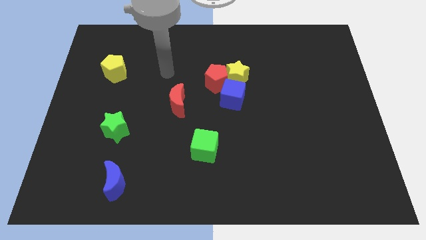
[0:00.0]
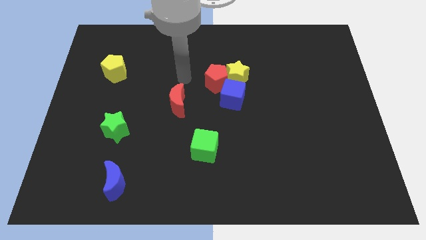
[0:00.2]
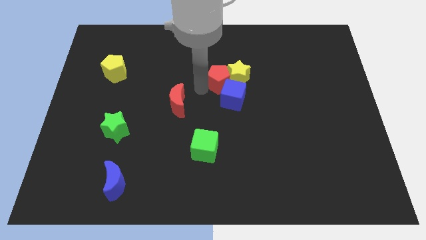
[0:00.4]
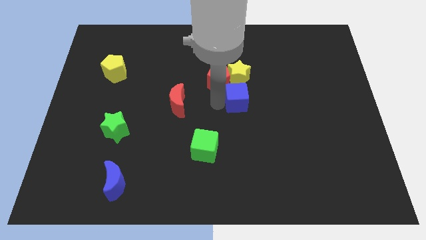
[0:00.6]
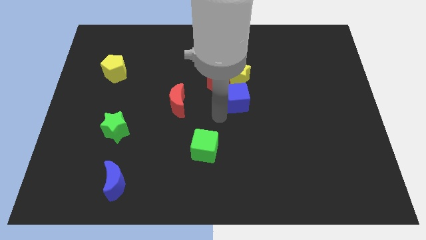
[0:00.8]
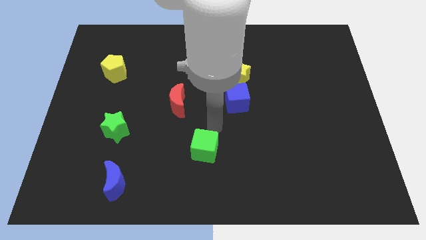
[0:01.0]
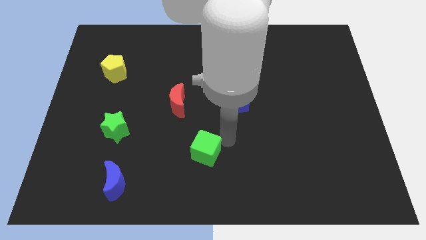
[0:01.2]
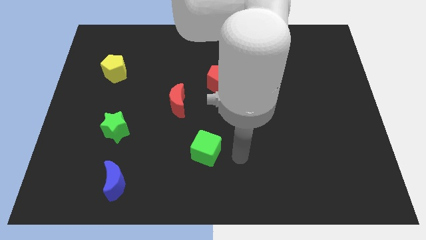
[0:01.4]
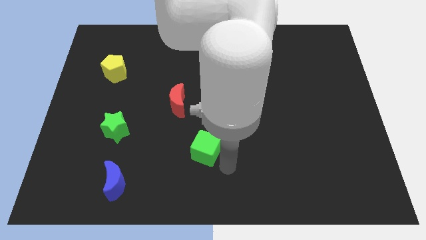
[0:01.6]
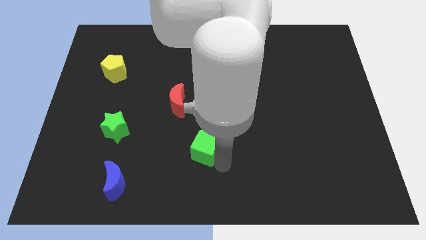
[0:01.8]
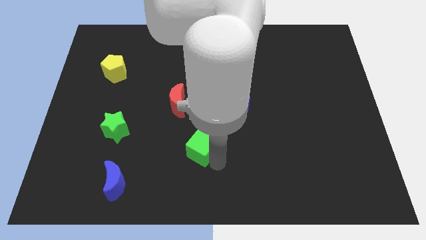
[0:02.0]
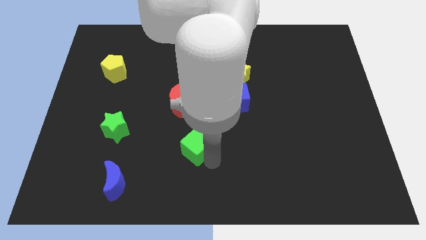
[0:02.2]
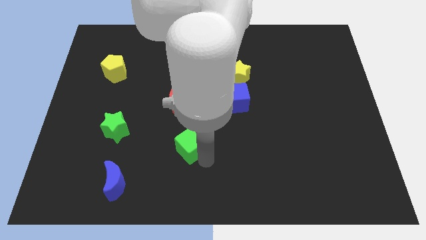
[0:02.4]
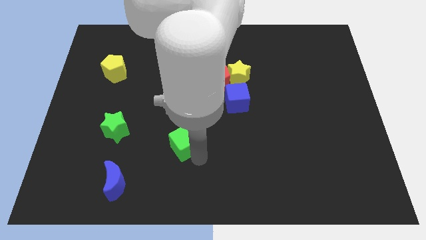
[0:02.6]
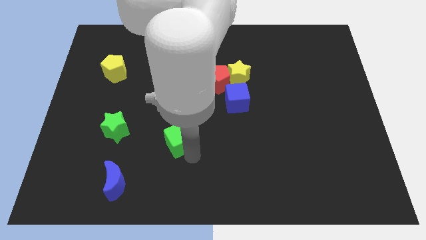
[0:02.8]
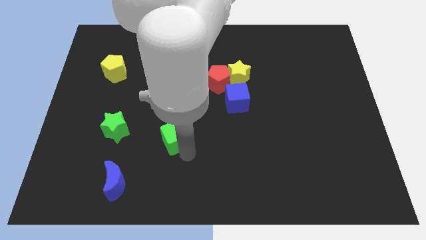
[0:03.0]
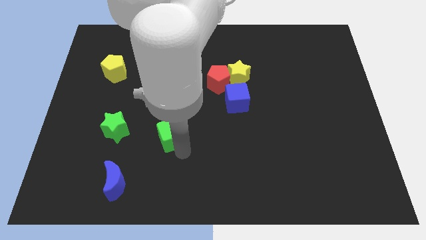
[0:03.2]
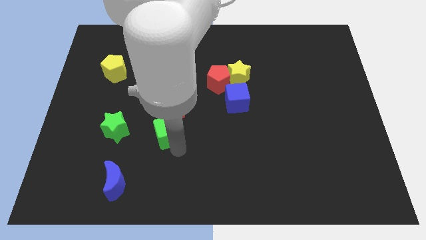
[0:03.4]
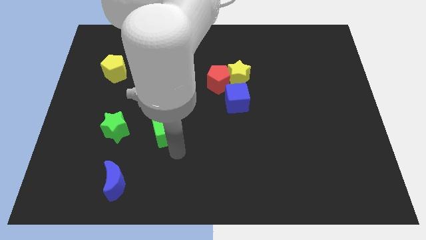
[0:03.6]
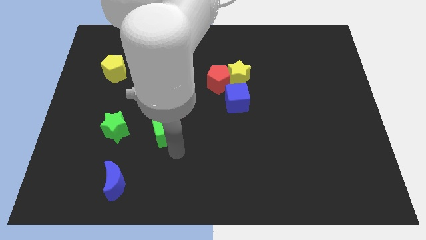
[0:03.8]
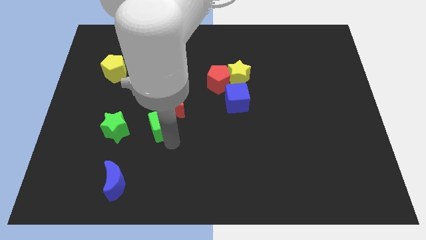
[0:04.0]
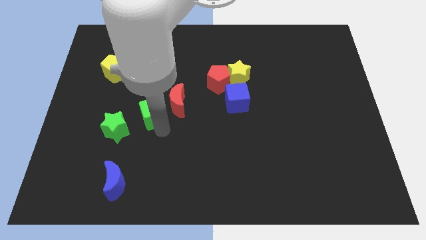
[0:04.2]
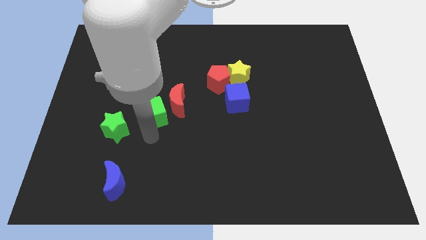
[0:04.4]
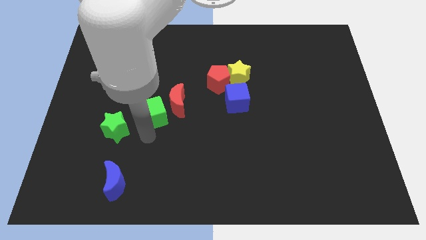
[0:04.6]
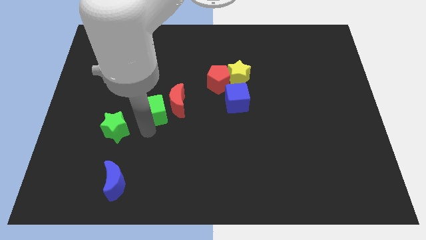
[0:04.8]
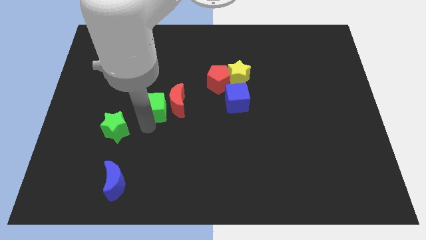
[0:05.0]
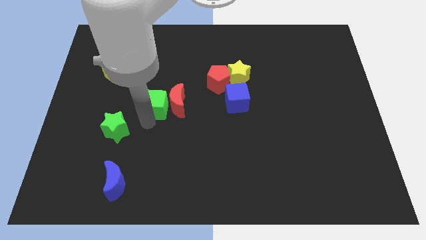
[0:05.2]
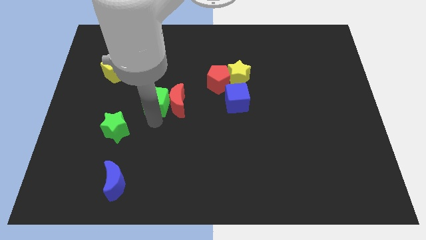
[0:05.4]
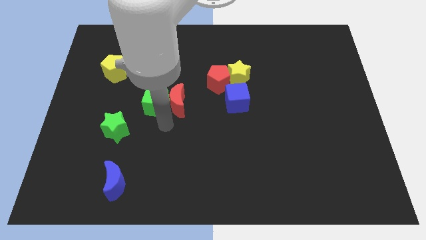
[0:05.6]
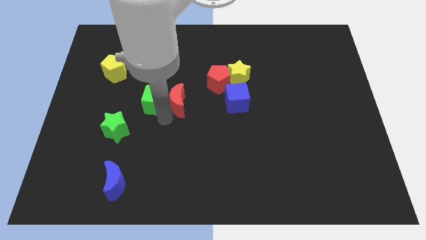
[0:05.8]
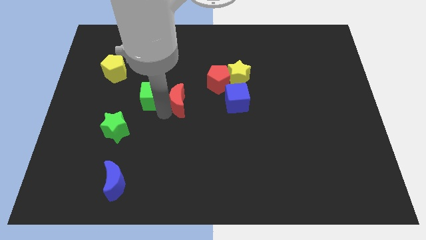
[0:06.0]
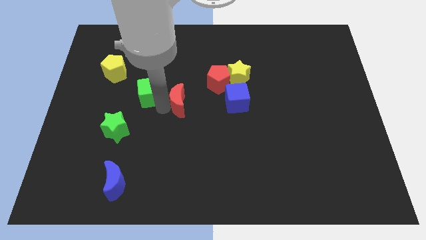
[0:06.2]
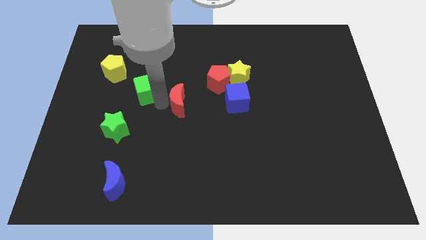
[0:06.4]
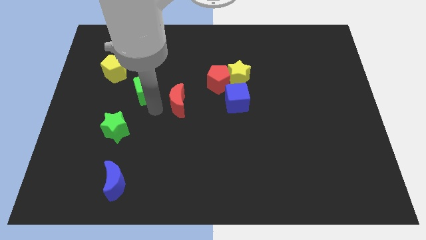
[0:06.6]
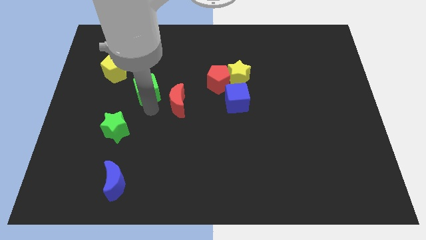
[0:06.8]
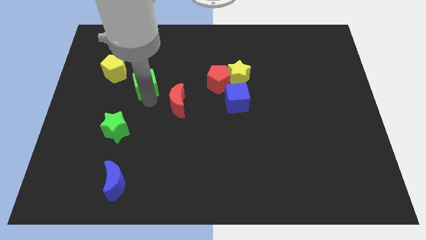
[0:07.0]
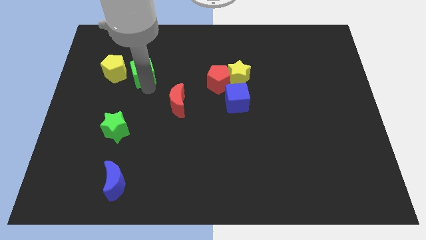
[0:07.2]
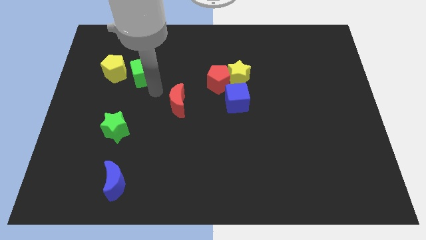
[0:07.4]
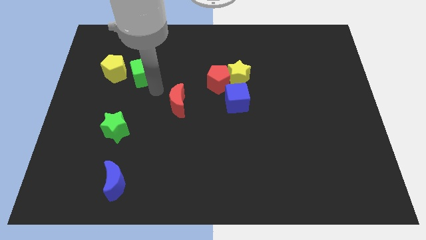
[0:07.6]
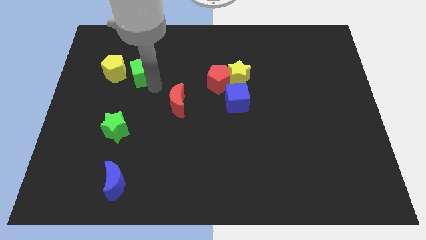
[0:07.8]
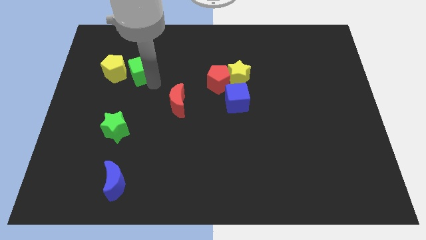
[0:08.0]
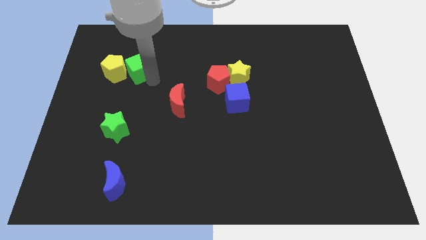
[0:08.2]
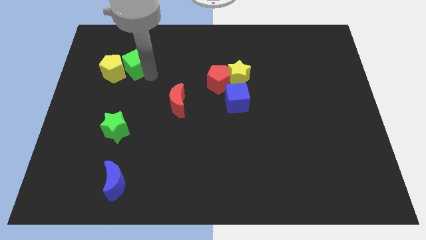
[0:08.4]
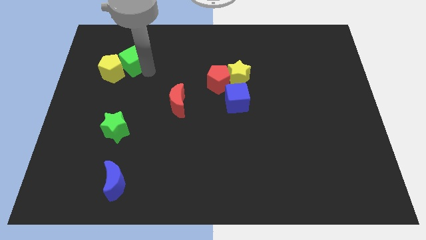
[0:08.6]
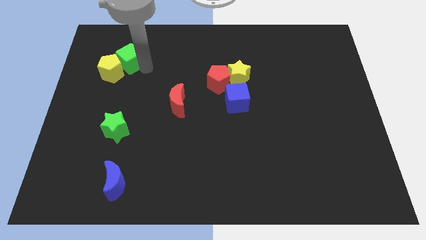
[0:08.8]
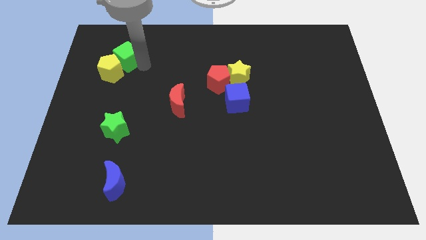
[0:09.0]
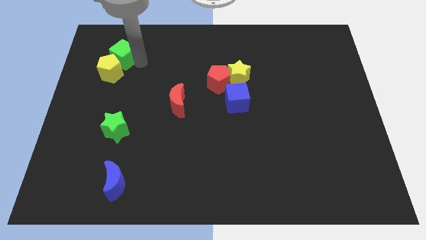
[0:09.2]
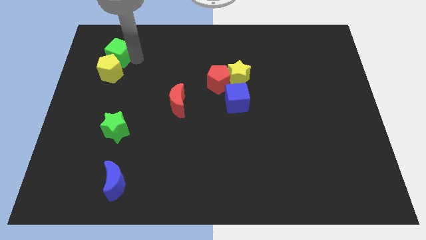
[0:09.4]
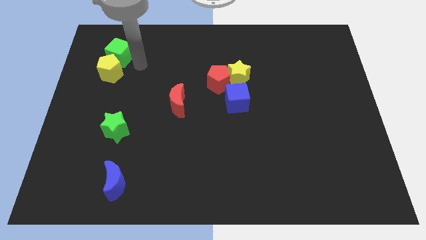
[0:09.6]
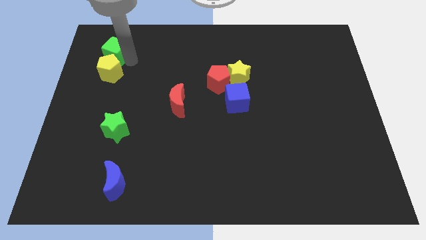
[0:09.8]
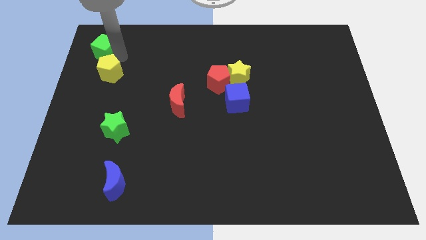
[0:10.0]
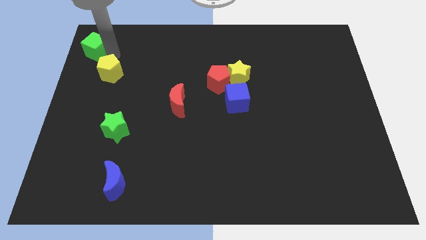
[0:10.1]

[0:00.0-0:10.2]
put the green cube to the top left corner
